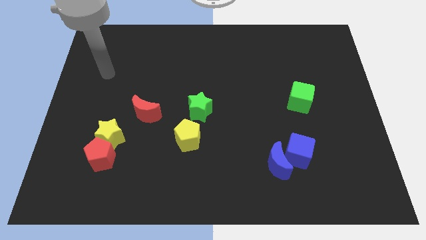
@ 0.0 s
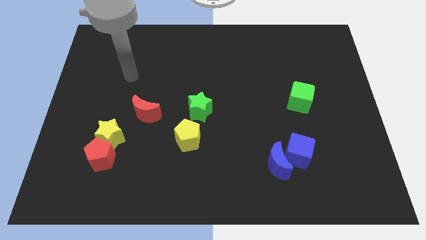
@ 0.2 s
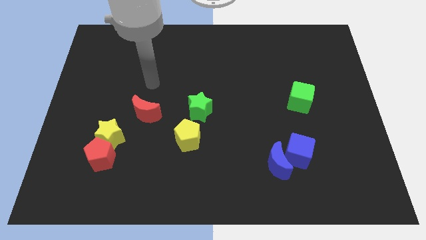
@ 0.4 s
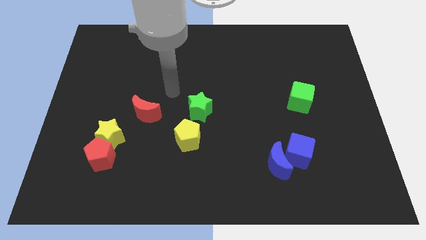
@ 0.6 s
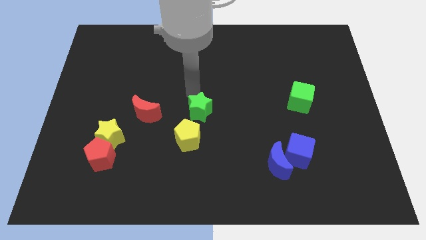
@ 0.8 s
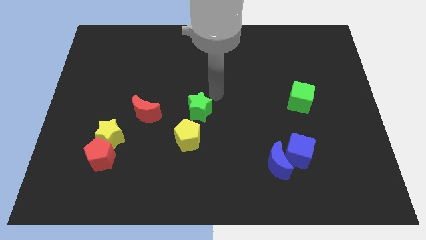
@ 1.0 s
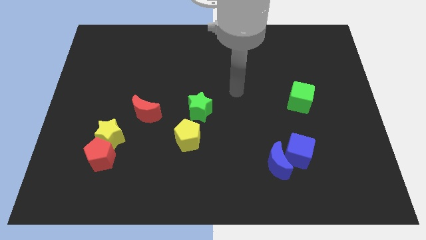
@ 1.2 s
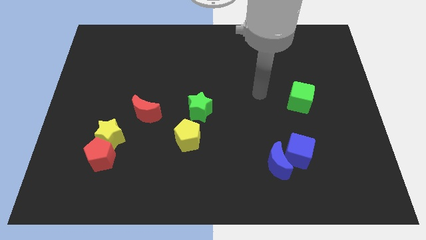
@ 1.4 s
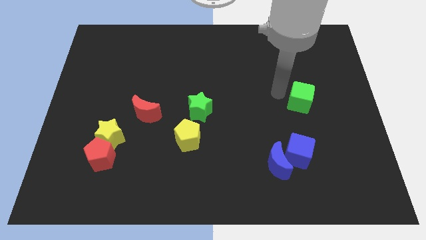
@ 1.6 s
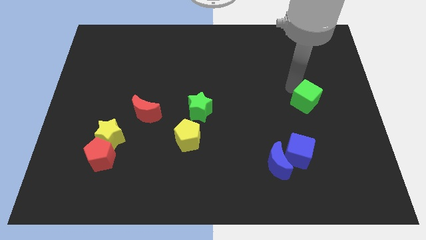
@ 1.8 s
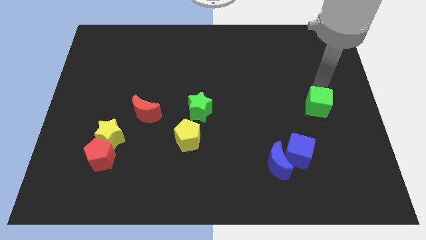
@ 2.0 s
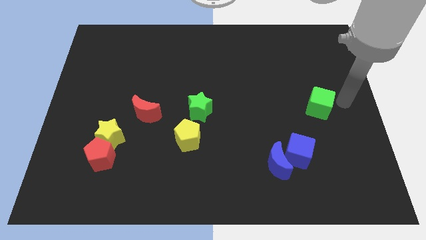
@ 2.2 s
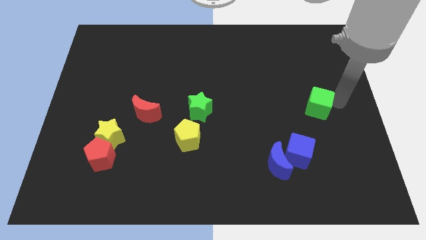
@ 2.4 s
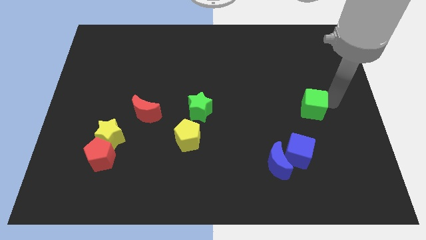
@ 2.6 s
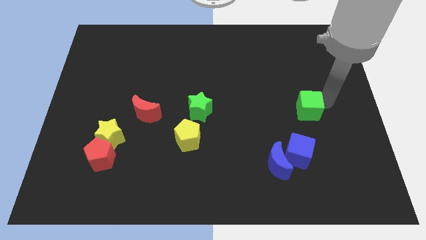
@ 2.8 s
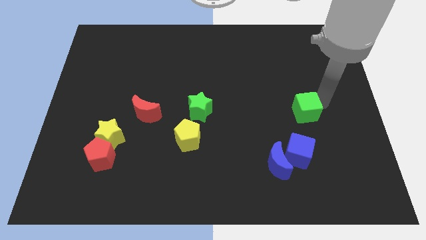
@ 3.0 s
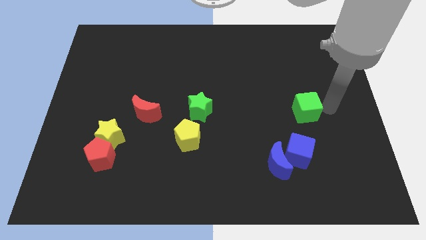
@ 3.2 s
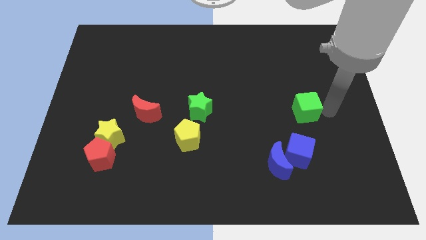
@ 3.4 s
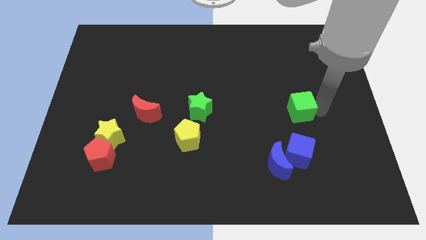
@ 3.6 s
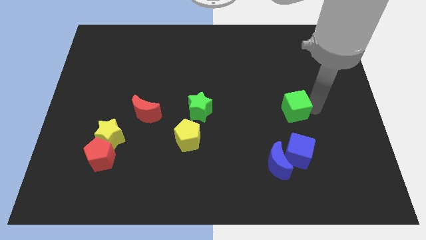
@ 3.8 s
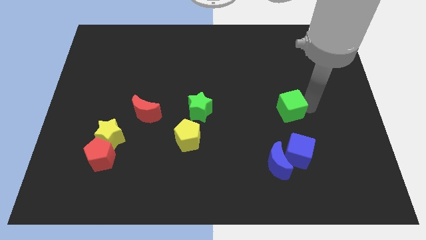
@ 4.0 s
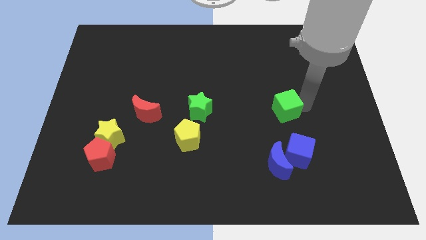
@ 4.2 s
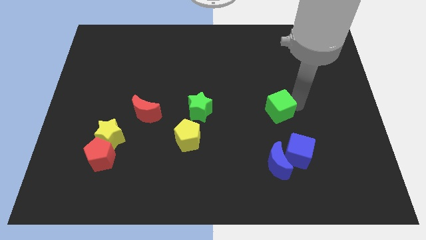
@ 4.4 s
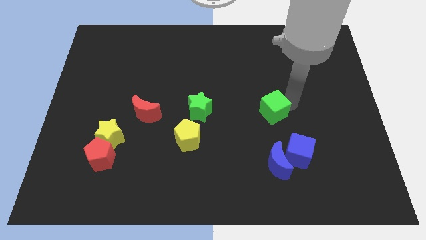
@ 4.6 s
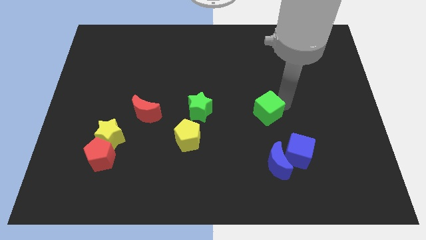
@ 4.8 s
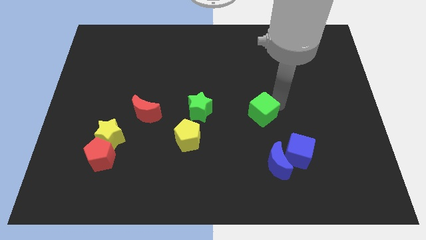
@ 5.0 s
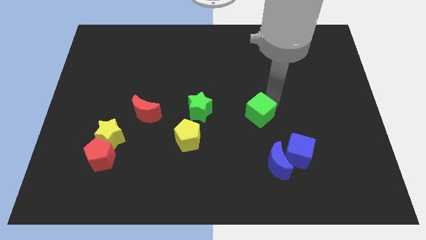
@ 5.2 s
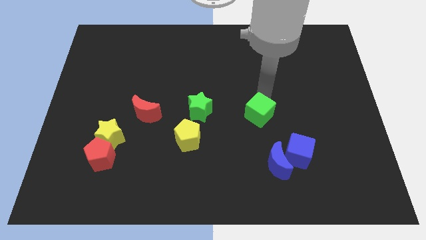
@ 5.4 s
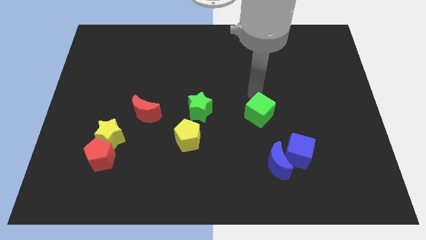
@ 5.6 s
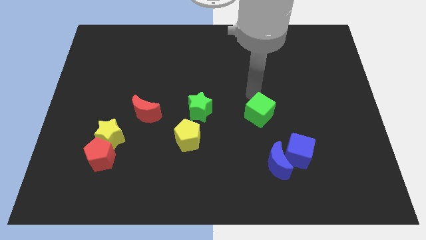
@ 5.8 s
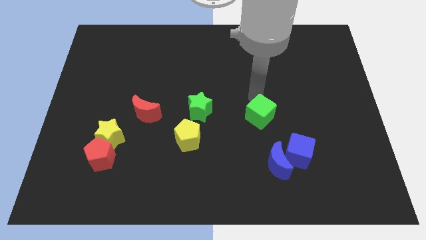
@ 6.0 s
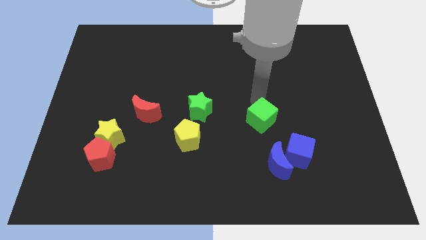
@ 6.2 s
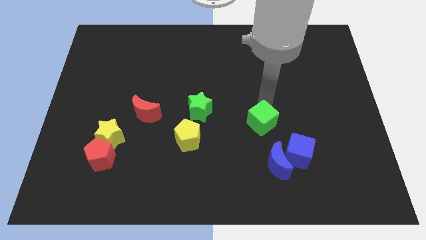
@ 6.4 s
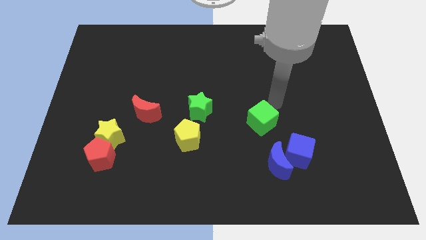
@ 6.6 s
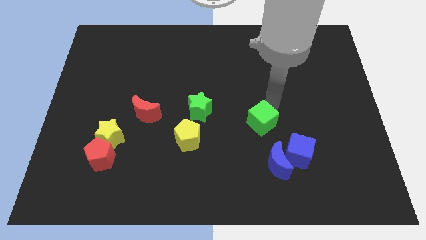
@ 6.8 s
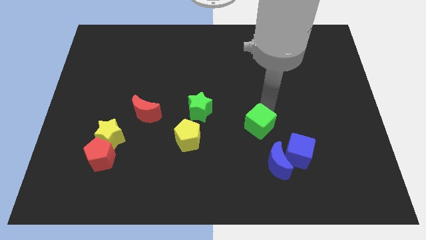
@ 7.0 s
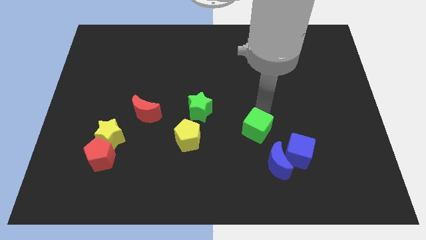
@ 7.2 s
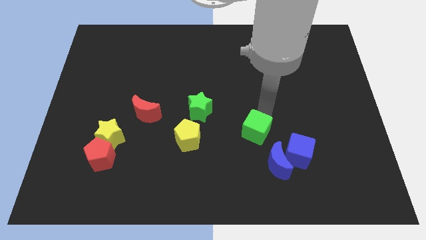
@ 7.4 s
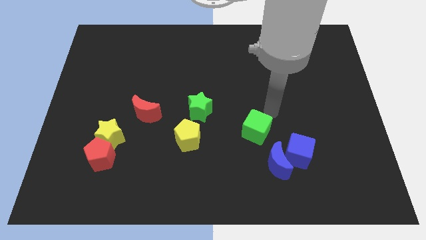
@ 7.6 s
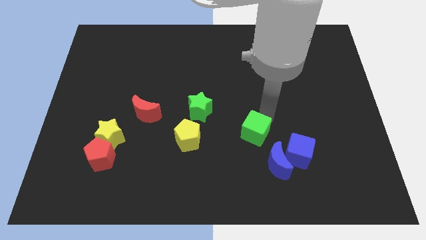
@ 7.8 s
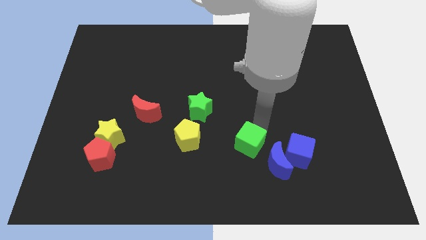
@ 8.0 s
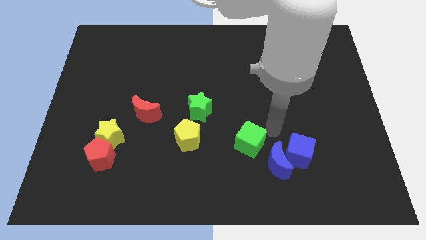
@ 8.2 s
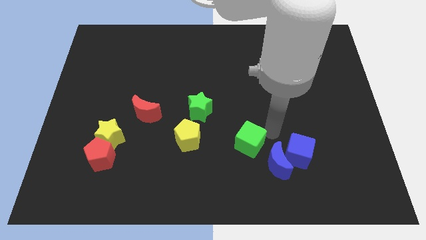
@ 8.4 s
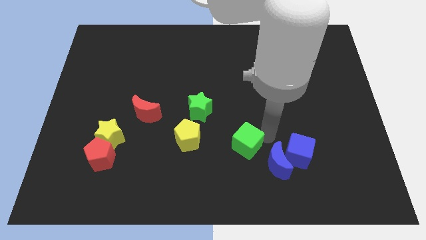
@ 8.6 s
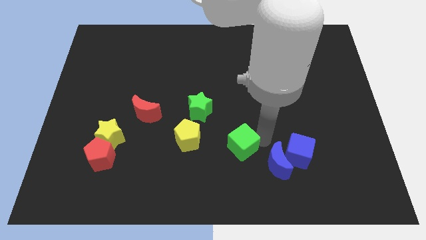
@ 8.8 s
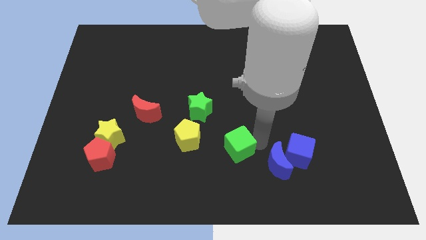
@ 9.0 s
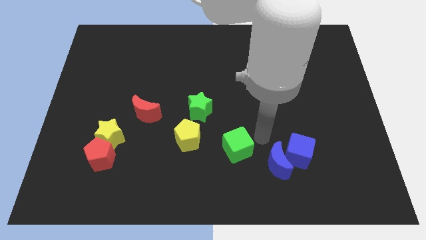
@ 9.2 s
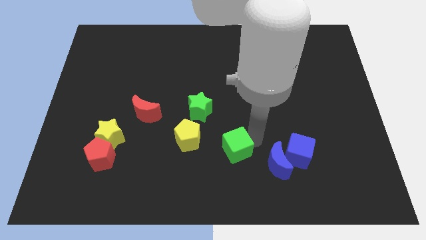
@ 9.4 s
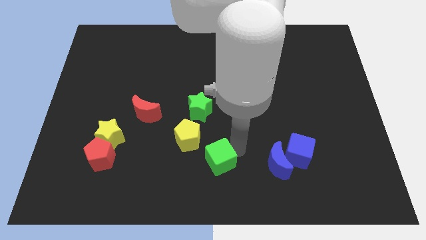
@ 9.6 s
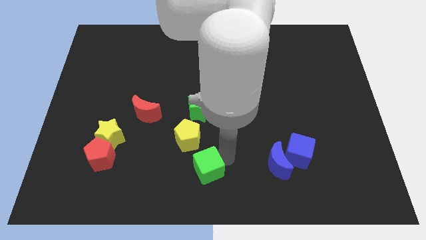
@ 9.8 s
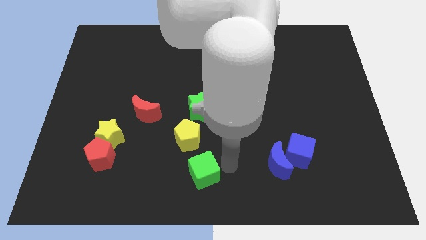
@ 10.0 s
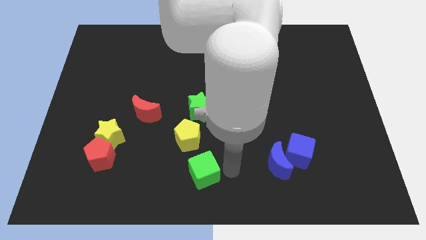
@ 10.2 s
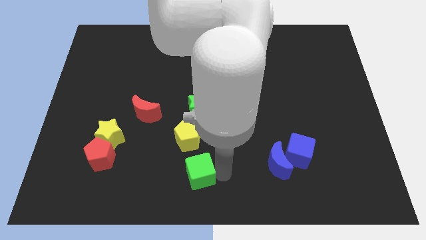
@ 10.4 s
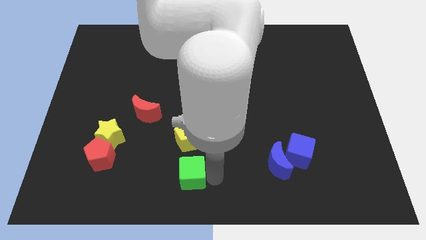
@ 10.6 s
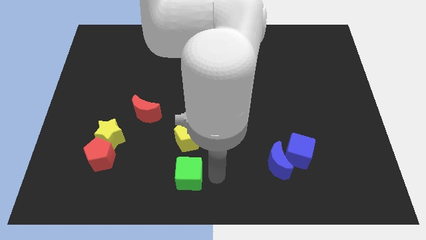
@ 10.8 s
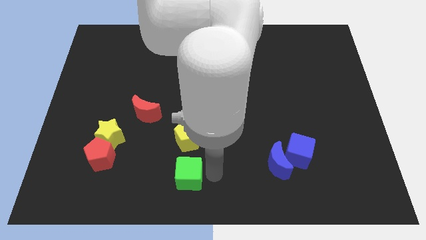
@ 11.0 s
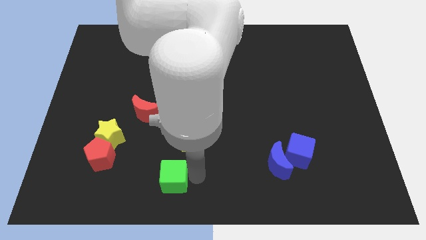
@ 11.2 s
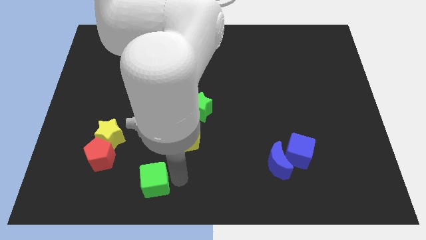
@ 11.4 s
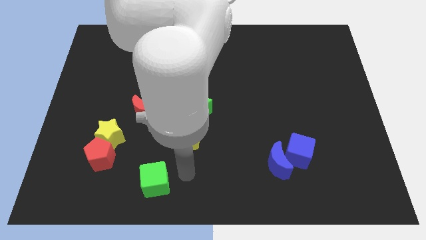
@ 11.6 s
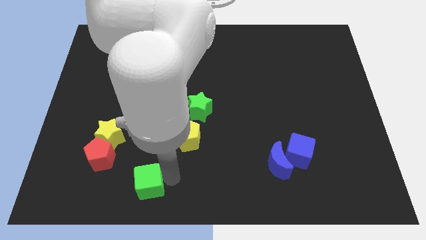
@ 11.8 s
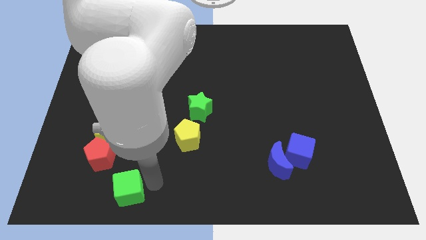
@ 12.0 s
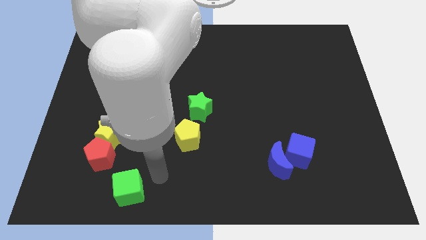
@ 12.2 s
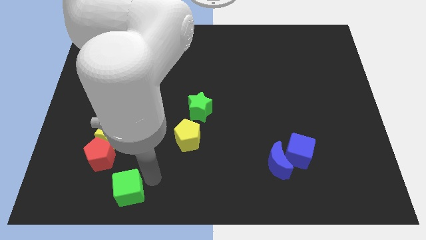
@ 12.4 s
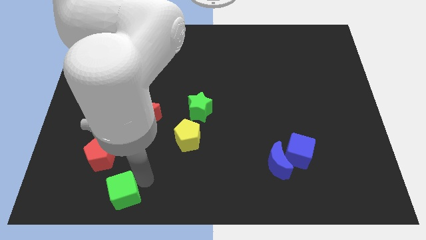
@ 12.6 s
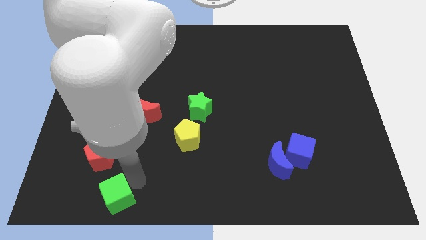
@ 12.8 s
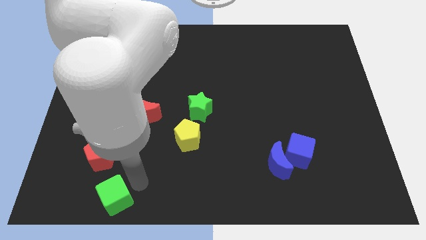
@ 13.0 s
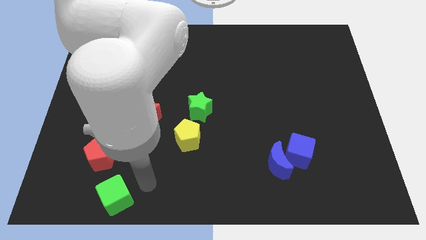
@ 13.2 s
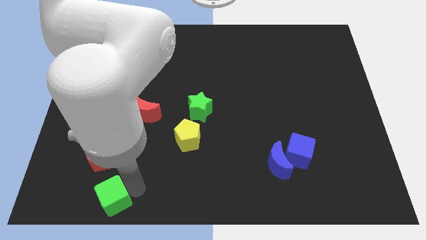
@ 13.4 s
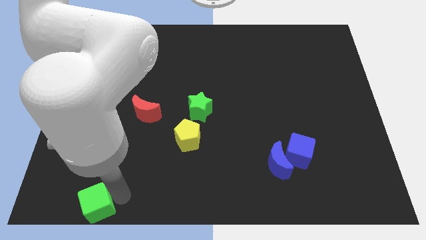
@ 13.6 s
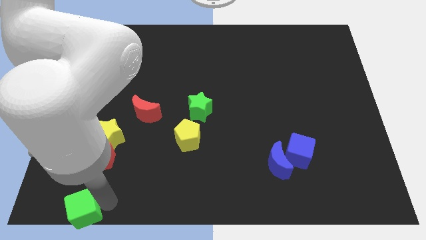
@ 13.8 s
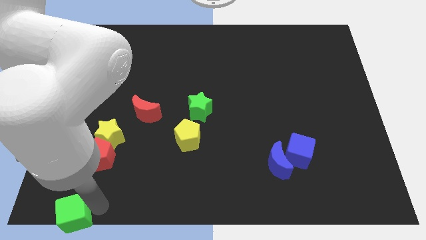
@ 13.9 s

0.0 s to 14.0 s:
put the green cube to the bottom left corner
